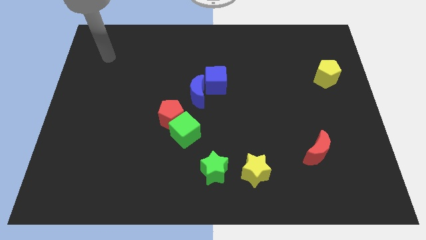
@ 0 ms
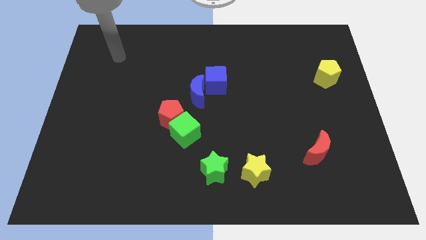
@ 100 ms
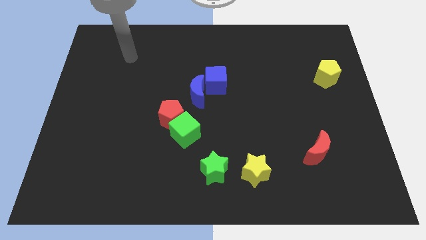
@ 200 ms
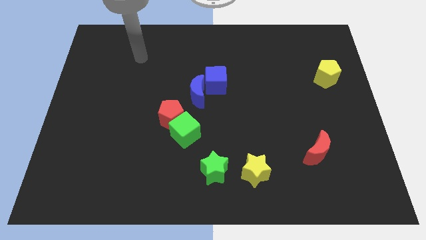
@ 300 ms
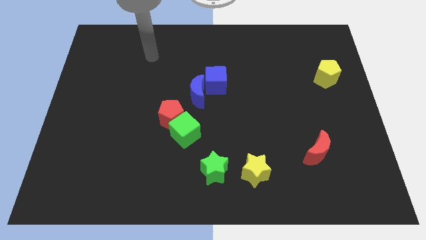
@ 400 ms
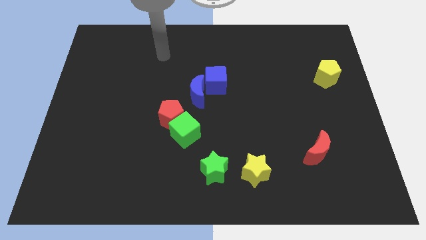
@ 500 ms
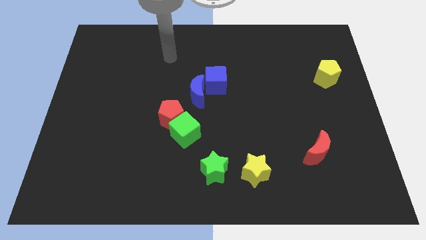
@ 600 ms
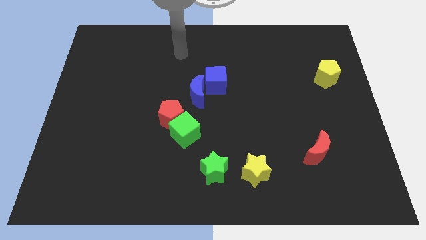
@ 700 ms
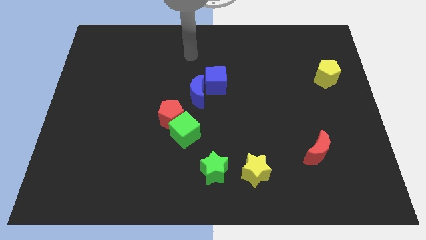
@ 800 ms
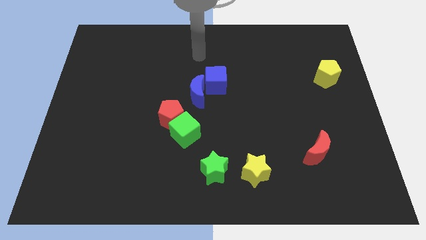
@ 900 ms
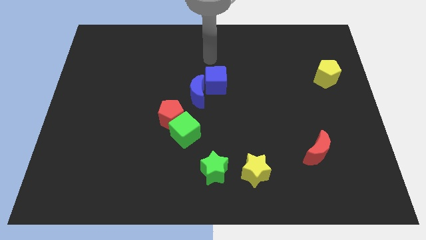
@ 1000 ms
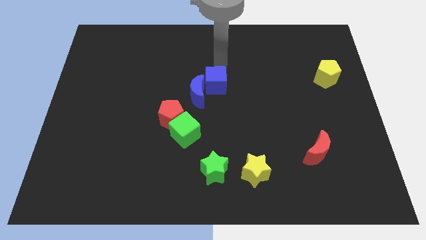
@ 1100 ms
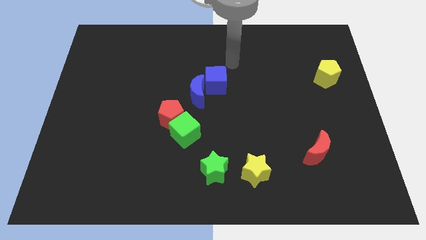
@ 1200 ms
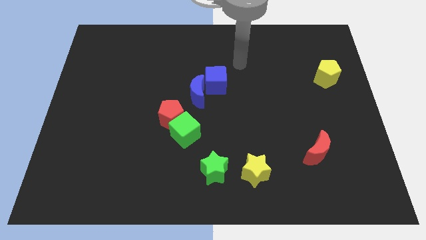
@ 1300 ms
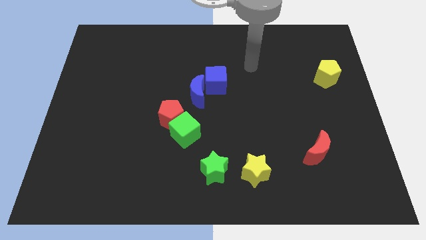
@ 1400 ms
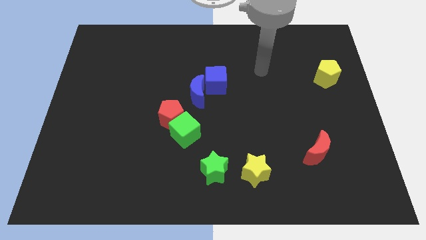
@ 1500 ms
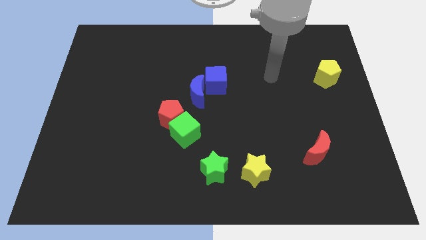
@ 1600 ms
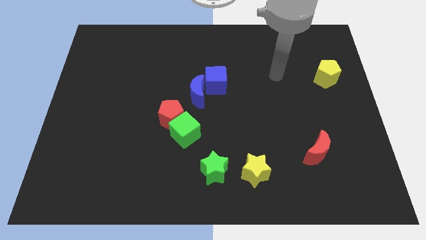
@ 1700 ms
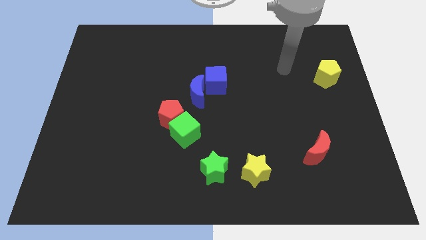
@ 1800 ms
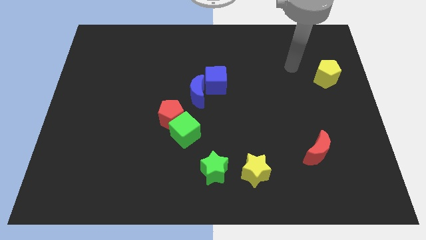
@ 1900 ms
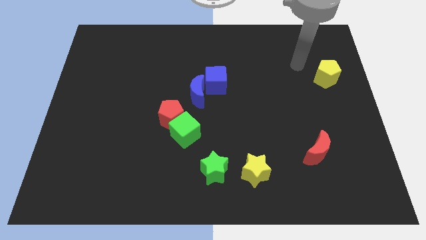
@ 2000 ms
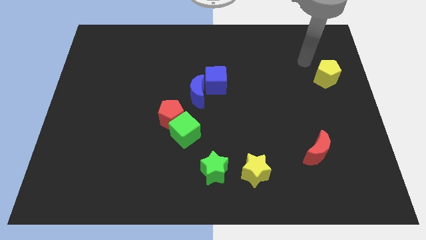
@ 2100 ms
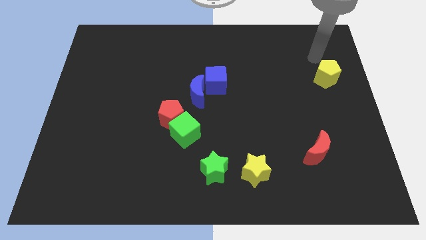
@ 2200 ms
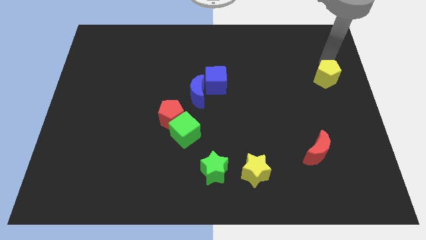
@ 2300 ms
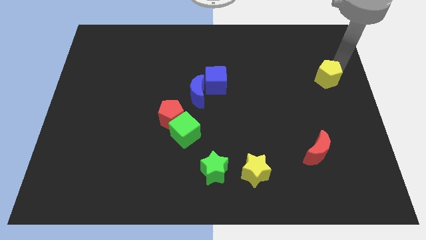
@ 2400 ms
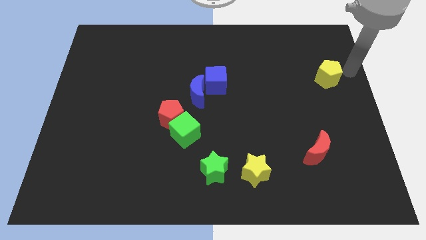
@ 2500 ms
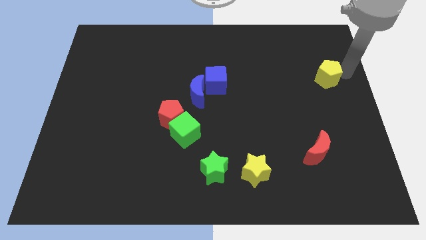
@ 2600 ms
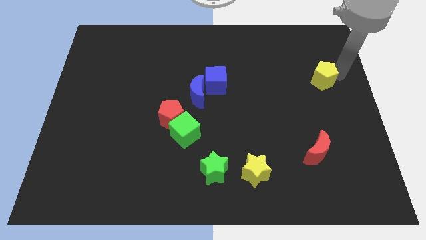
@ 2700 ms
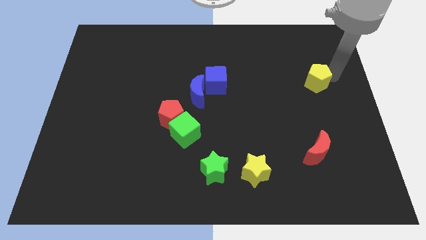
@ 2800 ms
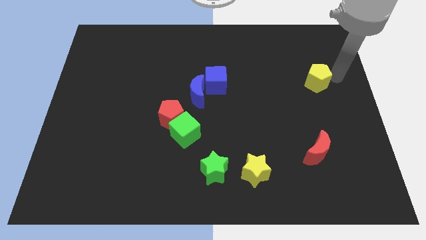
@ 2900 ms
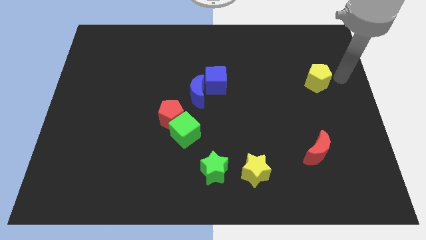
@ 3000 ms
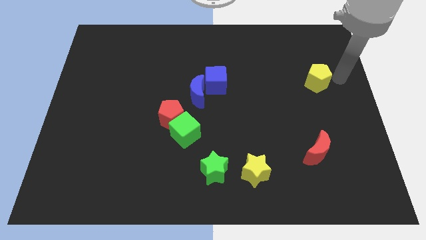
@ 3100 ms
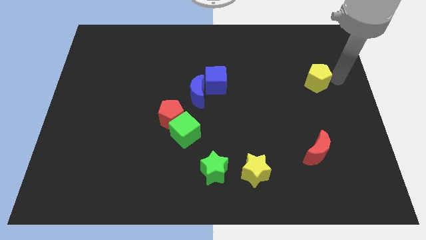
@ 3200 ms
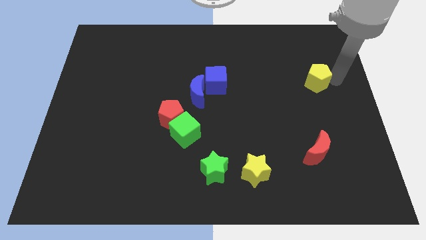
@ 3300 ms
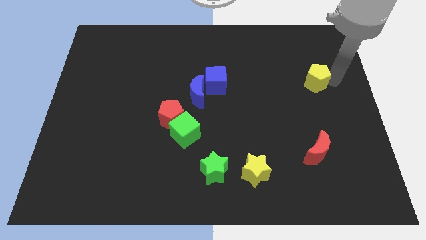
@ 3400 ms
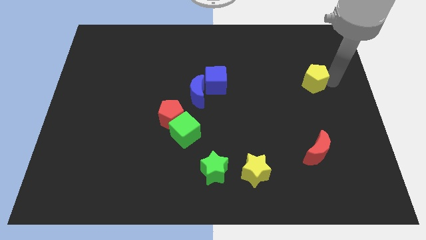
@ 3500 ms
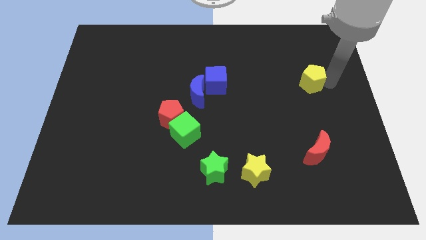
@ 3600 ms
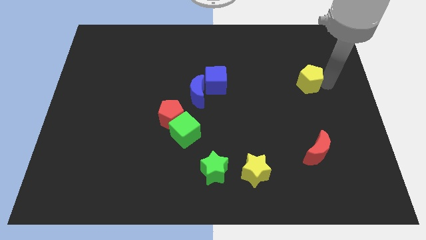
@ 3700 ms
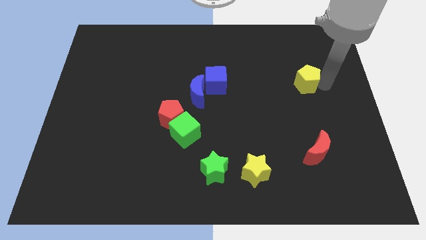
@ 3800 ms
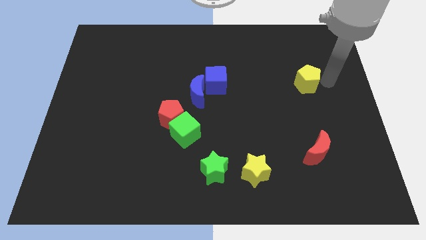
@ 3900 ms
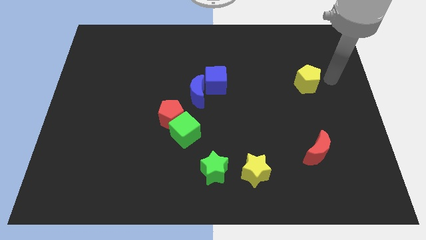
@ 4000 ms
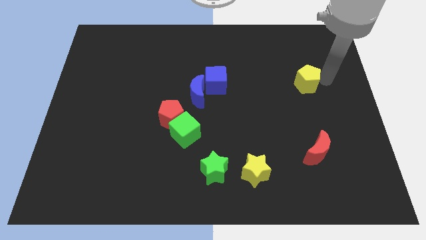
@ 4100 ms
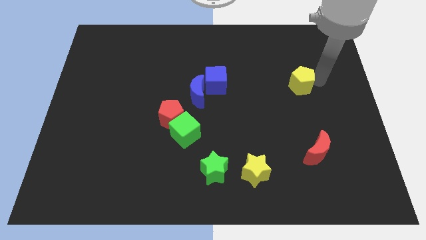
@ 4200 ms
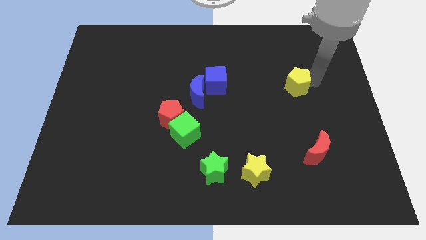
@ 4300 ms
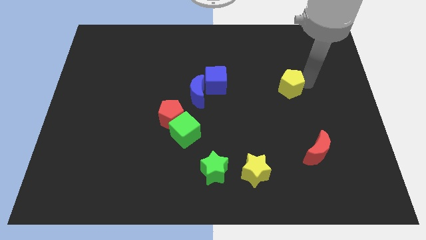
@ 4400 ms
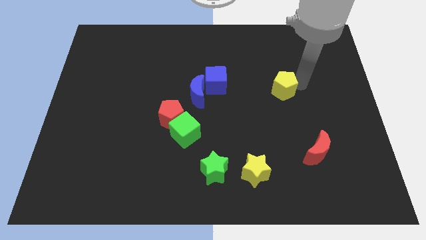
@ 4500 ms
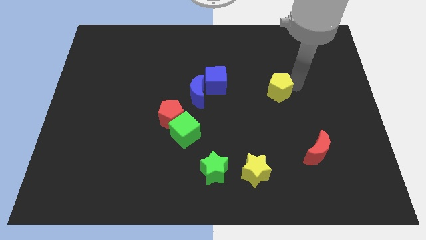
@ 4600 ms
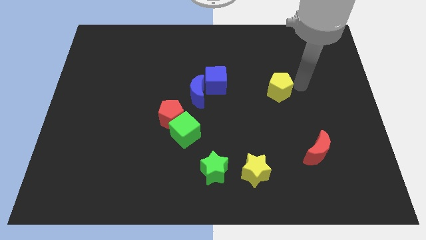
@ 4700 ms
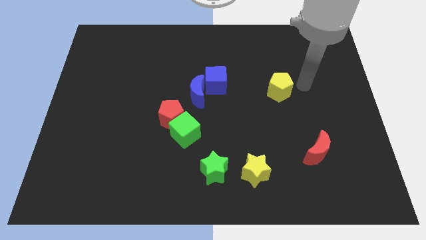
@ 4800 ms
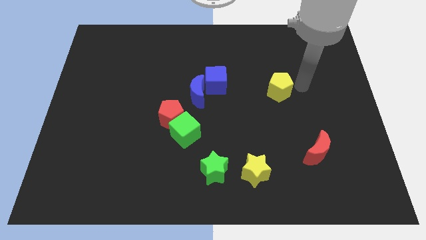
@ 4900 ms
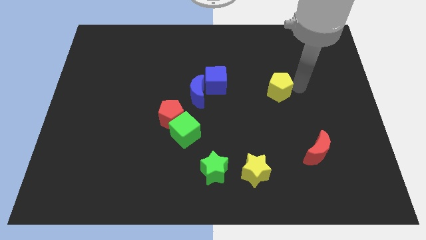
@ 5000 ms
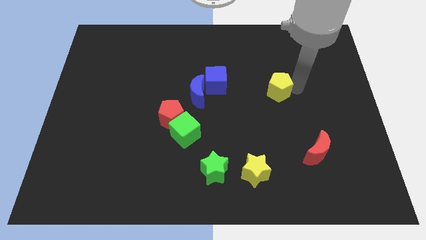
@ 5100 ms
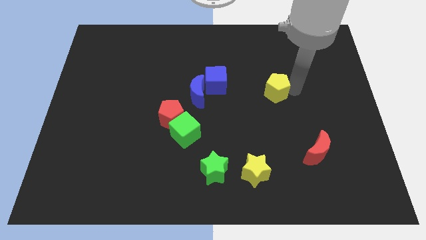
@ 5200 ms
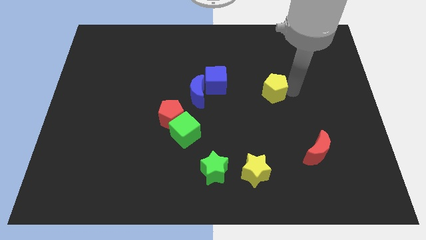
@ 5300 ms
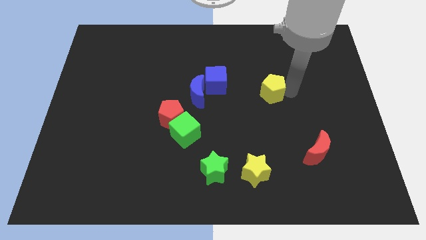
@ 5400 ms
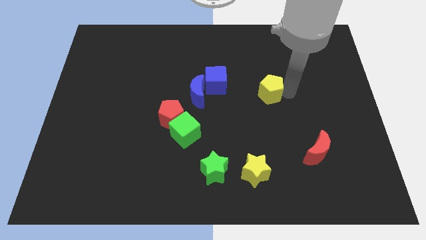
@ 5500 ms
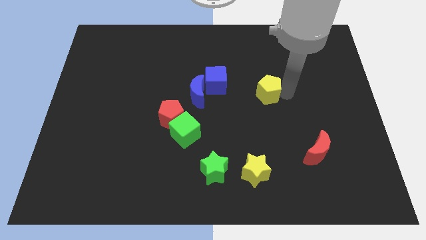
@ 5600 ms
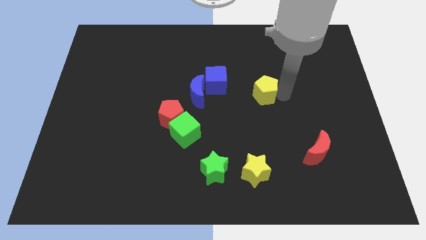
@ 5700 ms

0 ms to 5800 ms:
put the yellow pentagon to the center

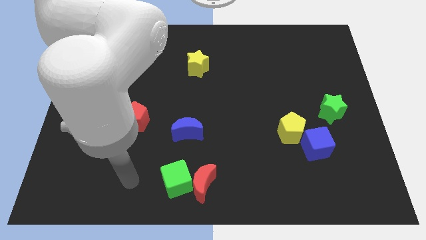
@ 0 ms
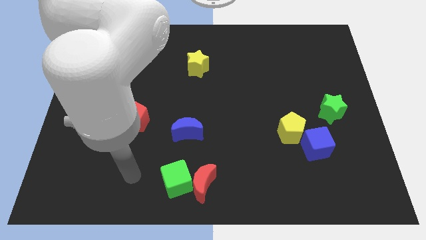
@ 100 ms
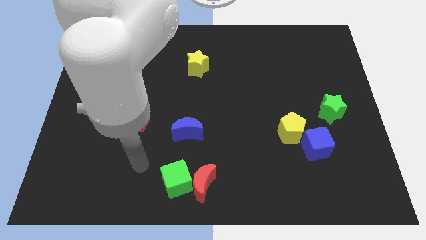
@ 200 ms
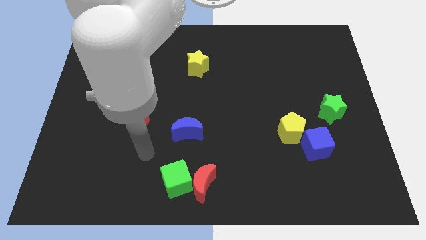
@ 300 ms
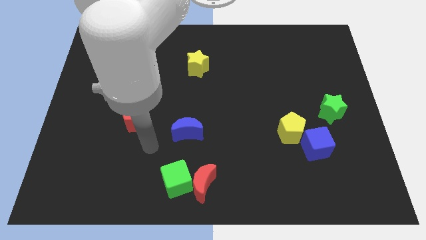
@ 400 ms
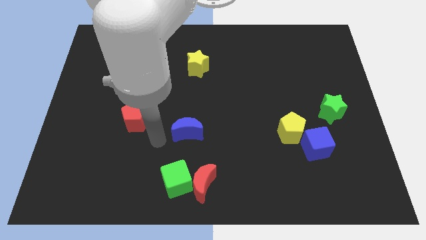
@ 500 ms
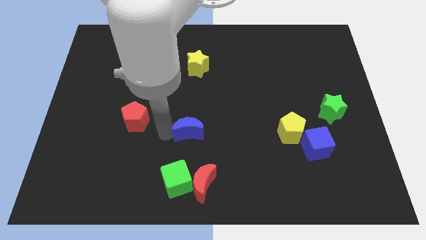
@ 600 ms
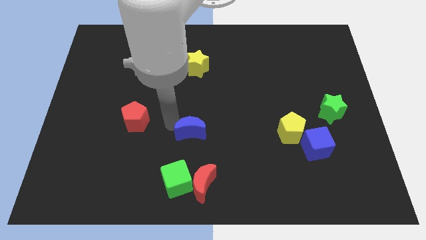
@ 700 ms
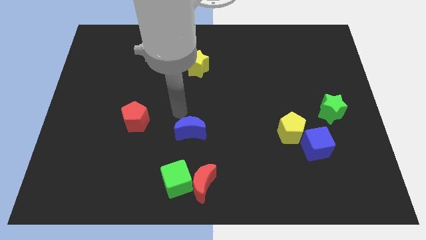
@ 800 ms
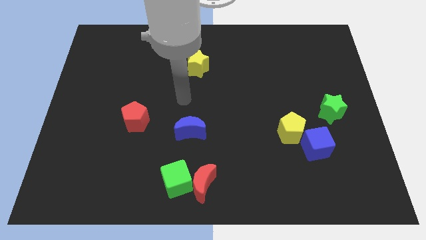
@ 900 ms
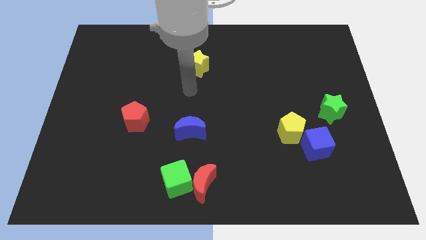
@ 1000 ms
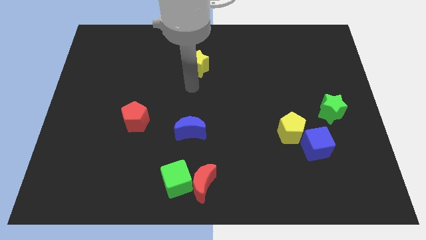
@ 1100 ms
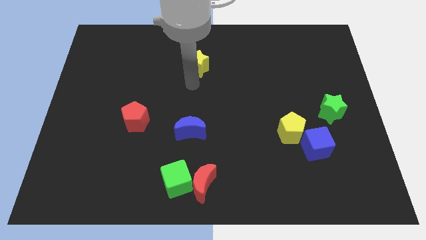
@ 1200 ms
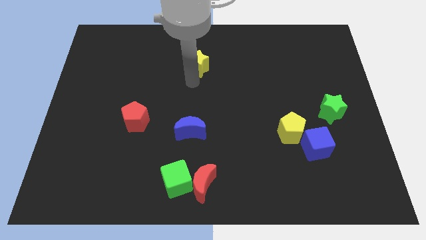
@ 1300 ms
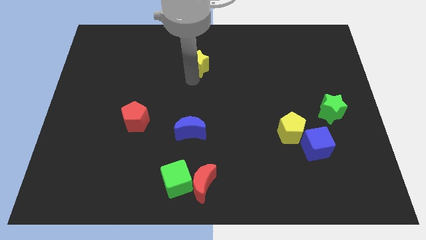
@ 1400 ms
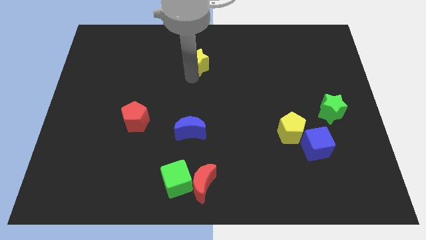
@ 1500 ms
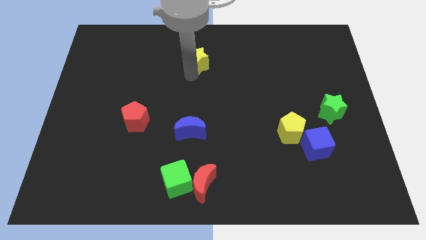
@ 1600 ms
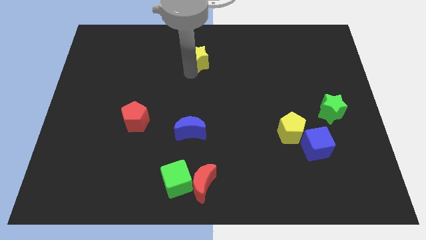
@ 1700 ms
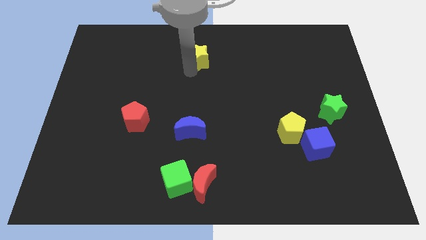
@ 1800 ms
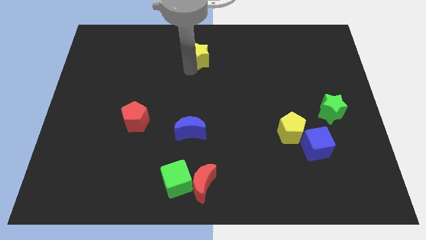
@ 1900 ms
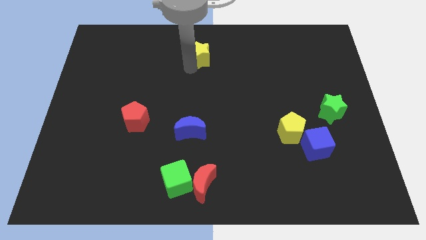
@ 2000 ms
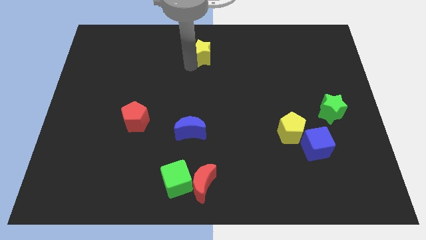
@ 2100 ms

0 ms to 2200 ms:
put the yellow star to the towards your base

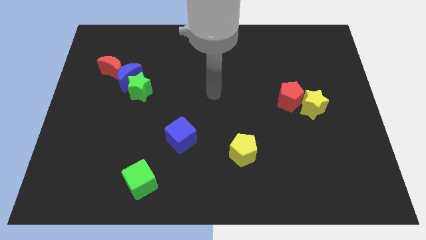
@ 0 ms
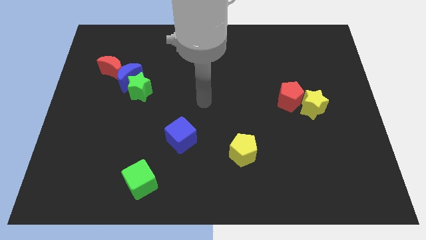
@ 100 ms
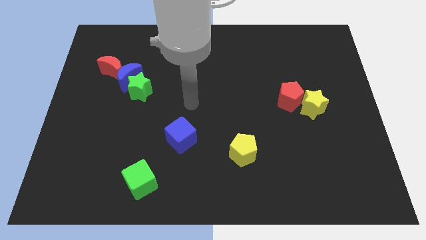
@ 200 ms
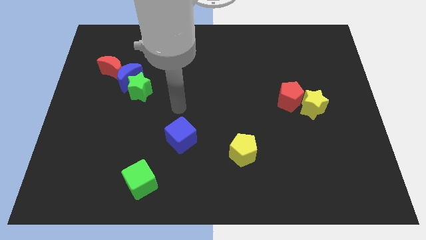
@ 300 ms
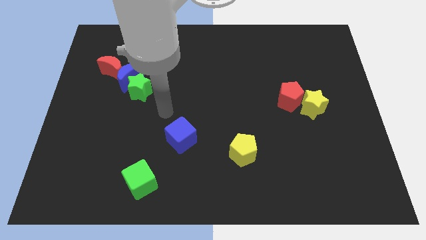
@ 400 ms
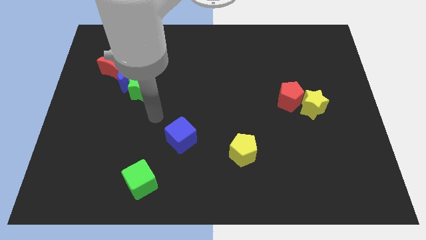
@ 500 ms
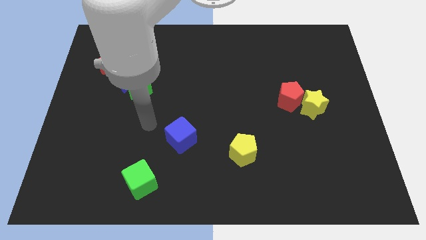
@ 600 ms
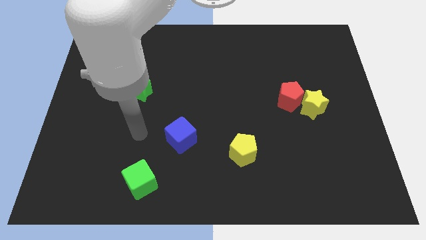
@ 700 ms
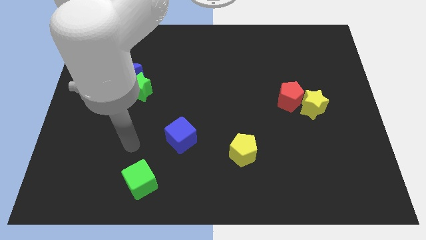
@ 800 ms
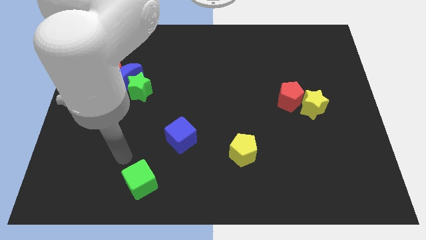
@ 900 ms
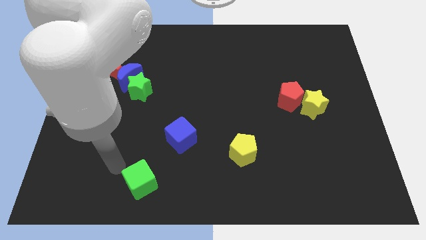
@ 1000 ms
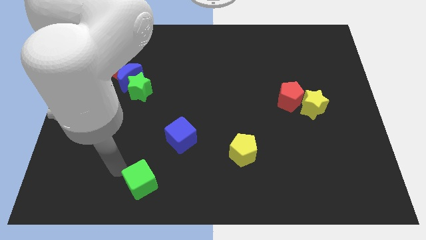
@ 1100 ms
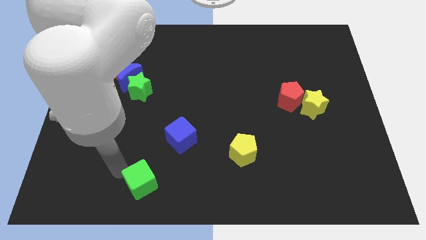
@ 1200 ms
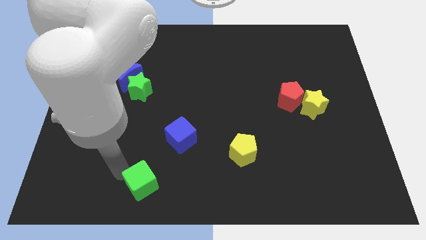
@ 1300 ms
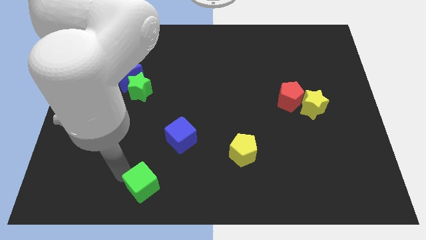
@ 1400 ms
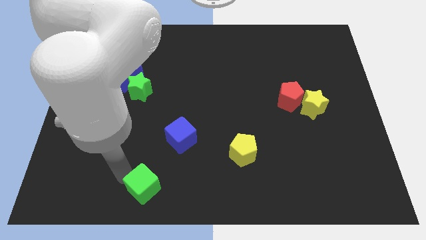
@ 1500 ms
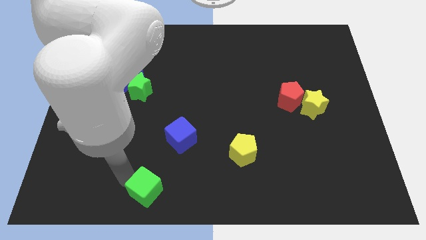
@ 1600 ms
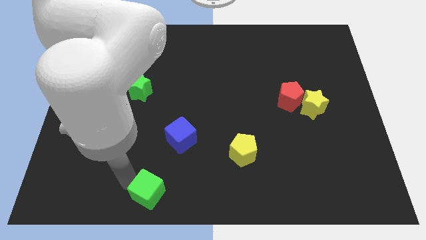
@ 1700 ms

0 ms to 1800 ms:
put the green cube to the bottom side
